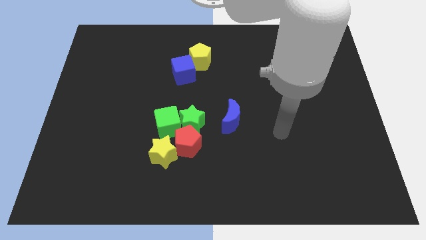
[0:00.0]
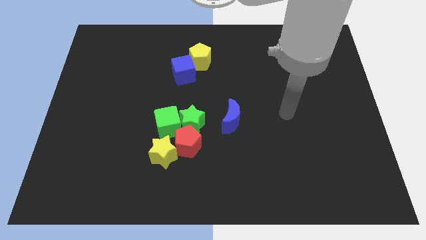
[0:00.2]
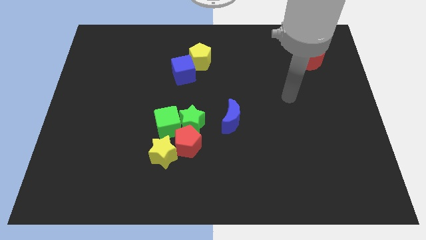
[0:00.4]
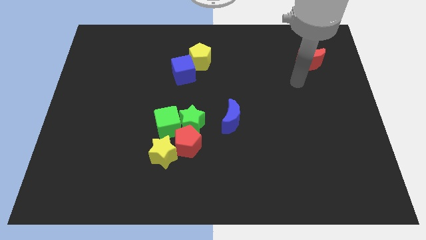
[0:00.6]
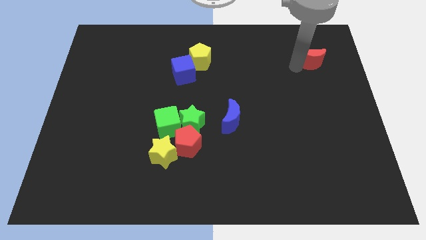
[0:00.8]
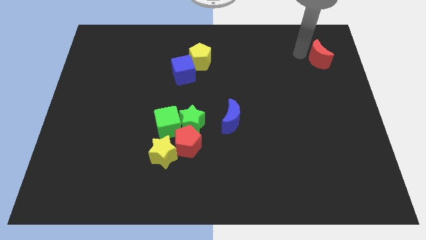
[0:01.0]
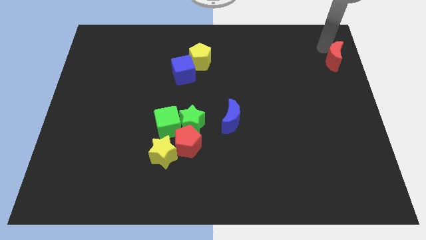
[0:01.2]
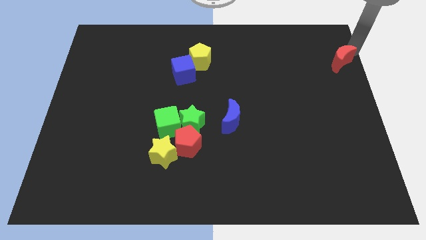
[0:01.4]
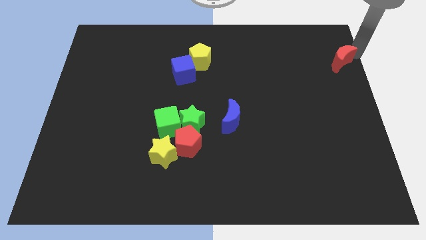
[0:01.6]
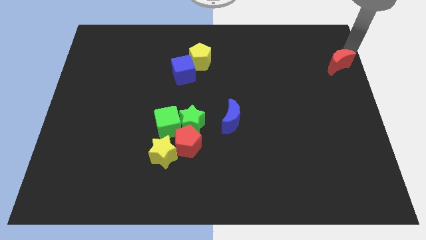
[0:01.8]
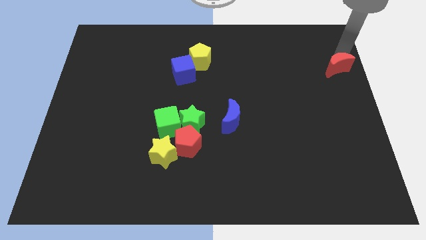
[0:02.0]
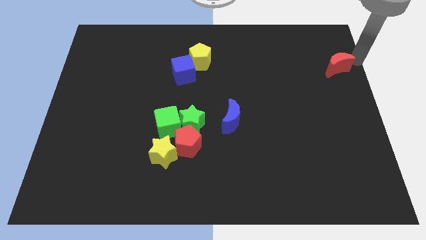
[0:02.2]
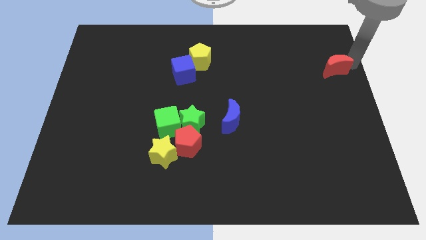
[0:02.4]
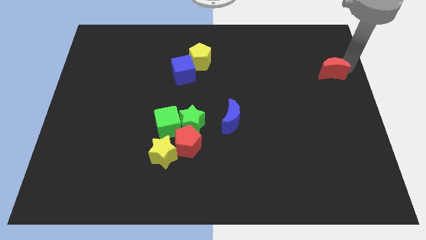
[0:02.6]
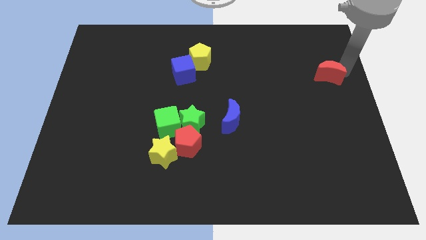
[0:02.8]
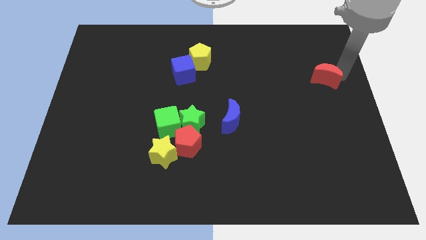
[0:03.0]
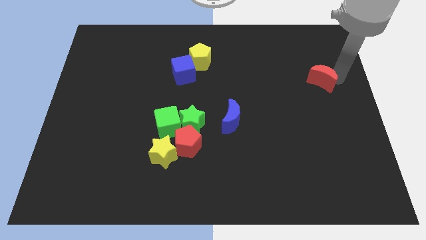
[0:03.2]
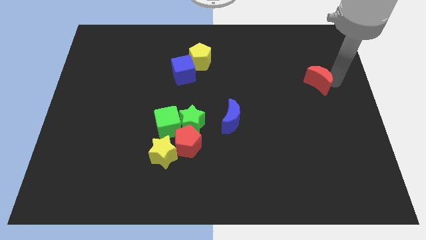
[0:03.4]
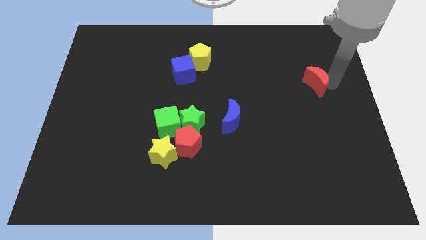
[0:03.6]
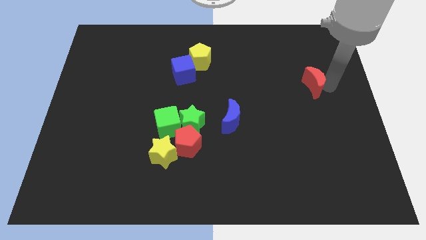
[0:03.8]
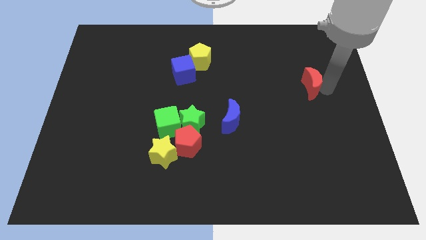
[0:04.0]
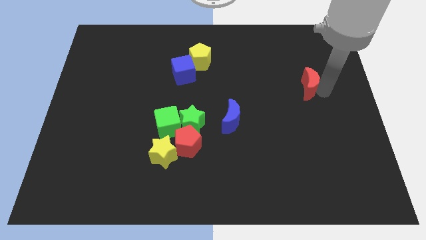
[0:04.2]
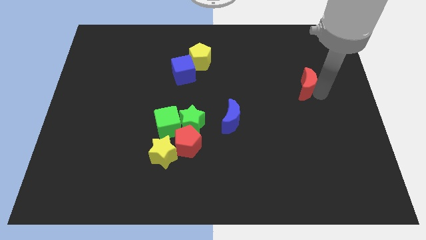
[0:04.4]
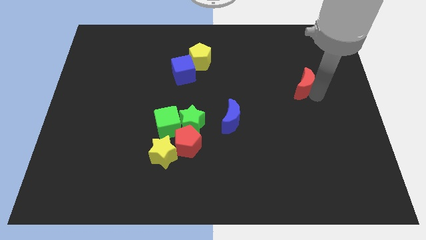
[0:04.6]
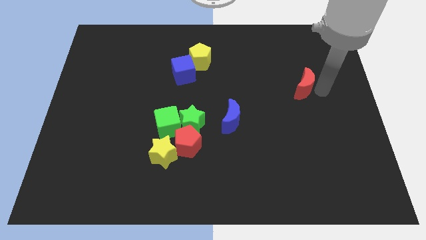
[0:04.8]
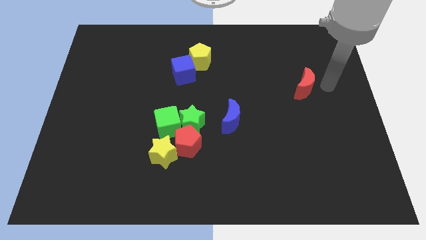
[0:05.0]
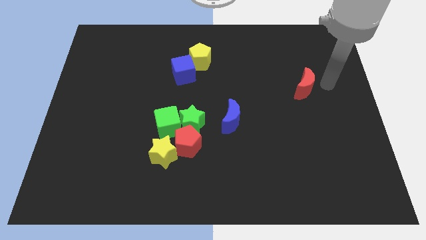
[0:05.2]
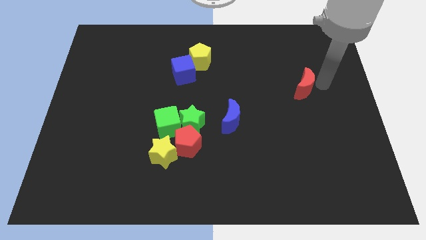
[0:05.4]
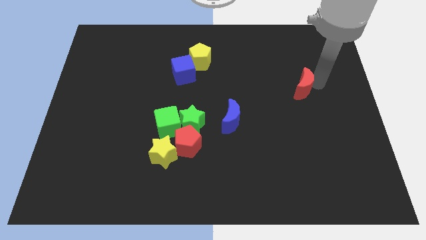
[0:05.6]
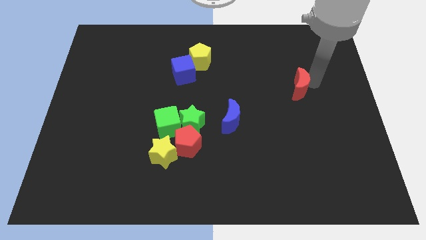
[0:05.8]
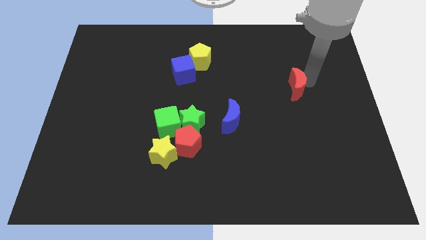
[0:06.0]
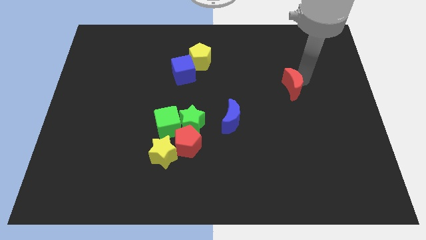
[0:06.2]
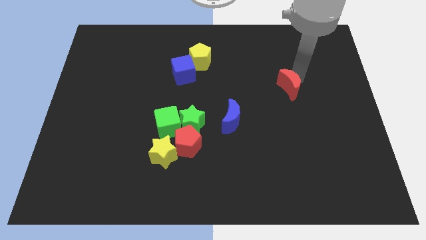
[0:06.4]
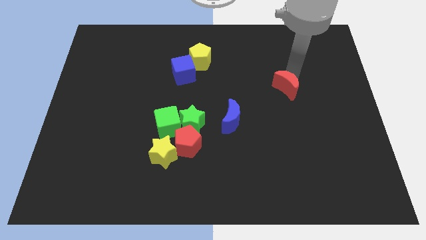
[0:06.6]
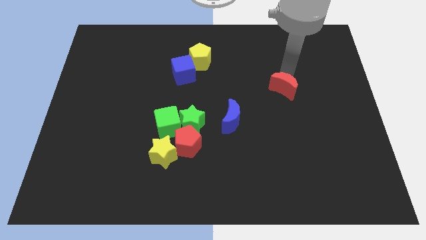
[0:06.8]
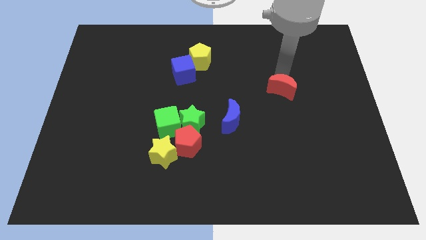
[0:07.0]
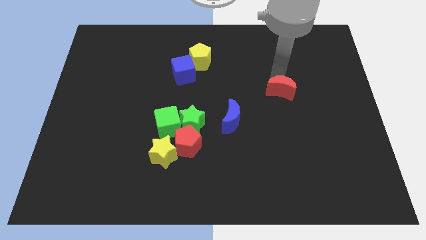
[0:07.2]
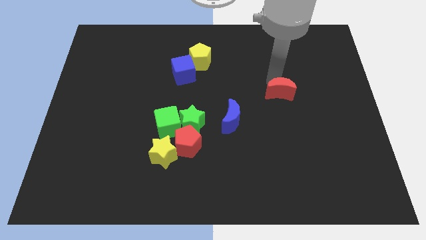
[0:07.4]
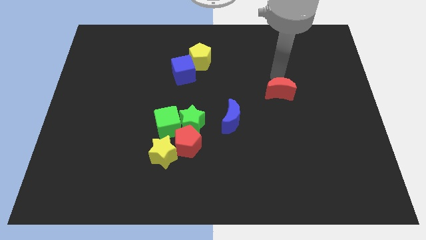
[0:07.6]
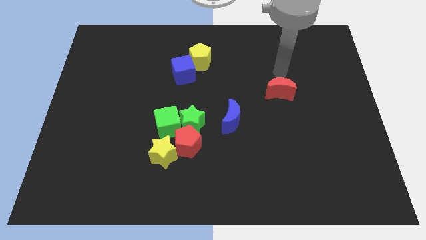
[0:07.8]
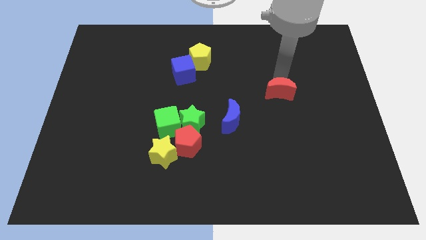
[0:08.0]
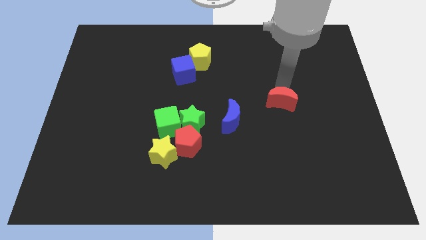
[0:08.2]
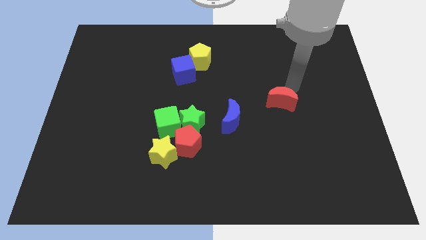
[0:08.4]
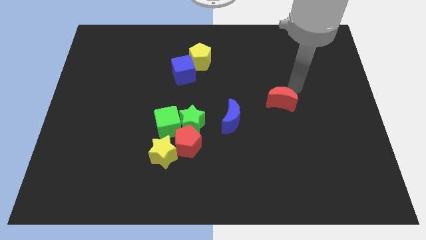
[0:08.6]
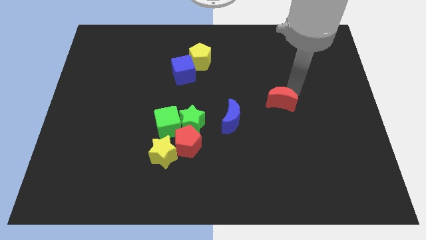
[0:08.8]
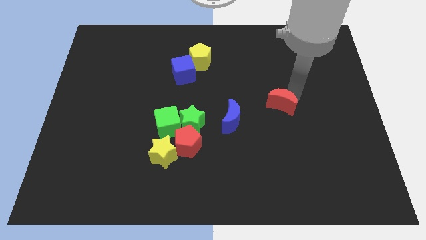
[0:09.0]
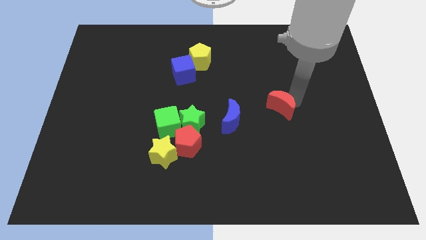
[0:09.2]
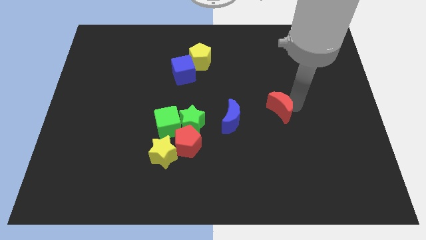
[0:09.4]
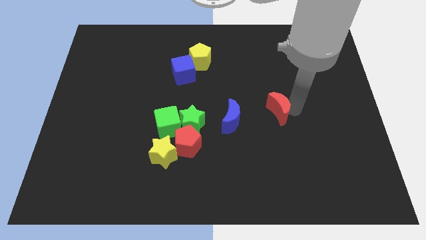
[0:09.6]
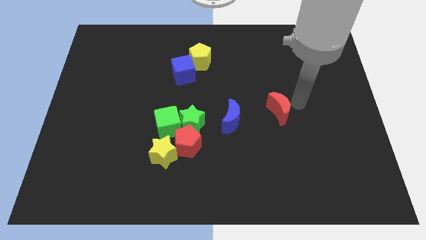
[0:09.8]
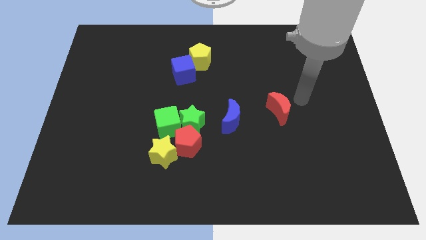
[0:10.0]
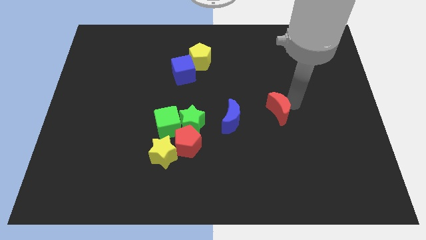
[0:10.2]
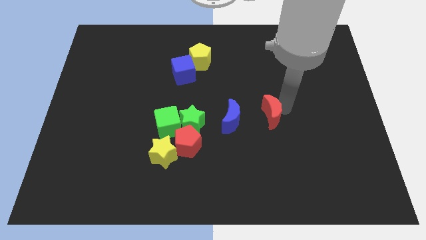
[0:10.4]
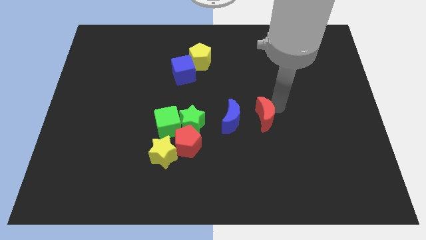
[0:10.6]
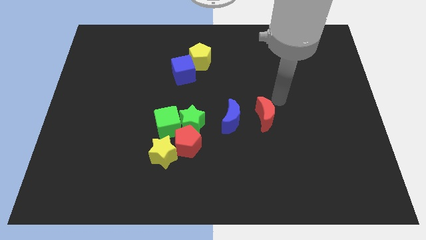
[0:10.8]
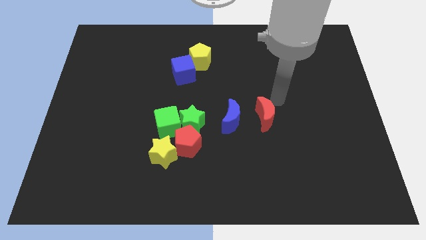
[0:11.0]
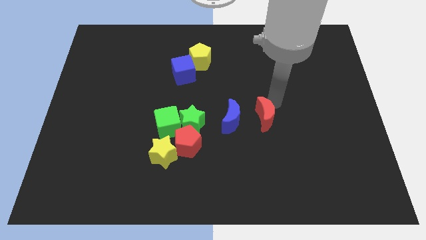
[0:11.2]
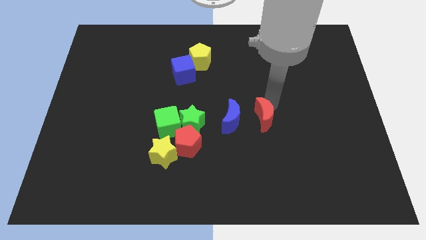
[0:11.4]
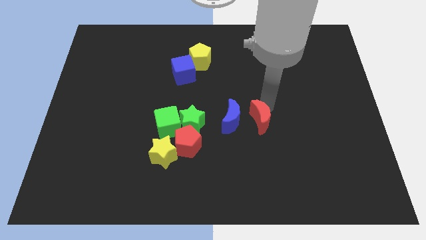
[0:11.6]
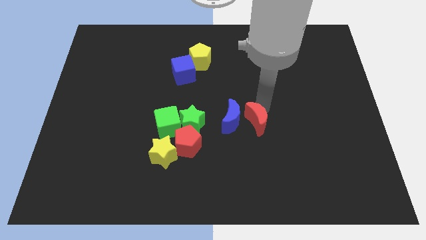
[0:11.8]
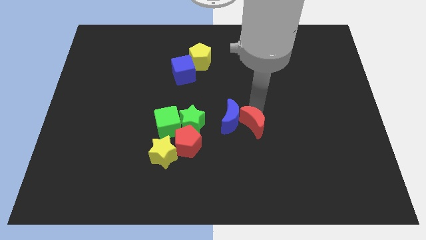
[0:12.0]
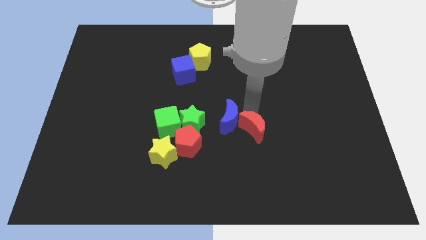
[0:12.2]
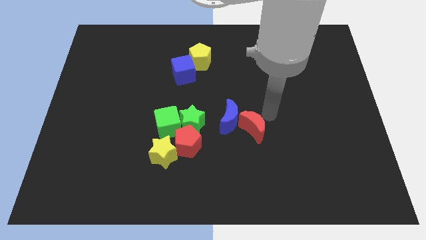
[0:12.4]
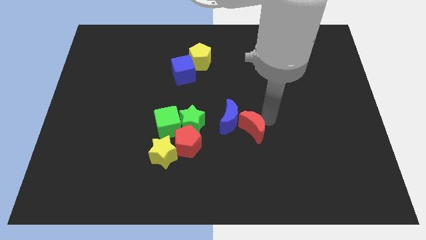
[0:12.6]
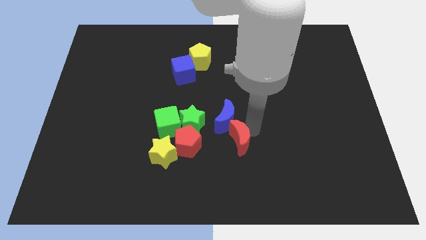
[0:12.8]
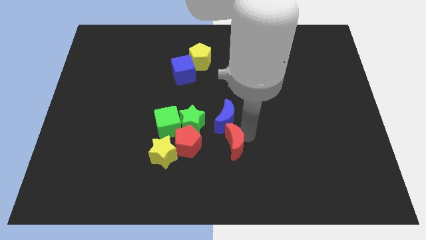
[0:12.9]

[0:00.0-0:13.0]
put the red moon just right of the yellow star

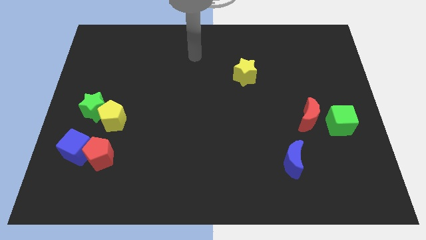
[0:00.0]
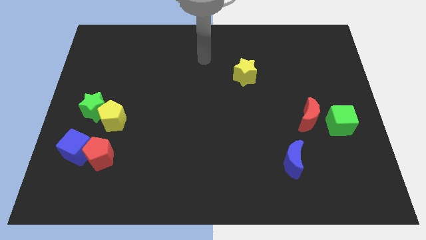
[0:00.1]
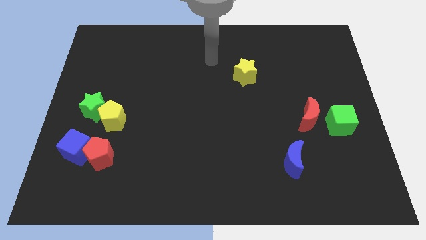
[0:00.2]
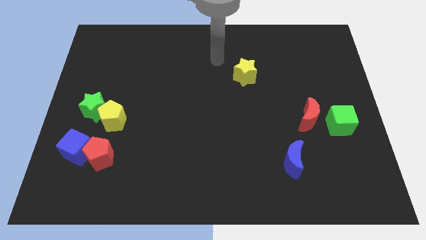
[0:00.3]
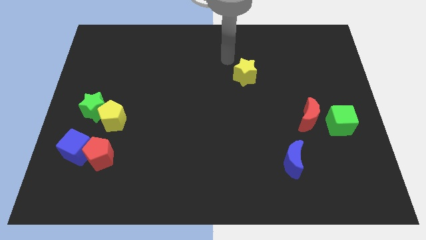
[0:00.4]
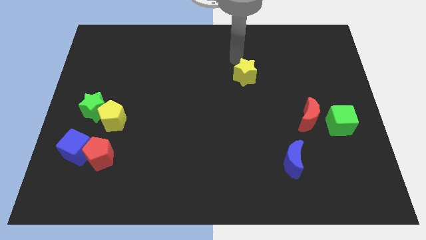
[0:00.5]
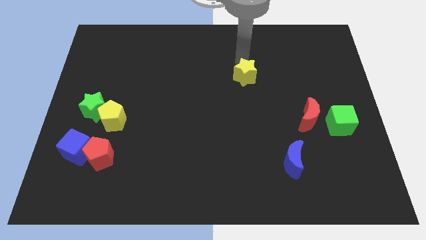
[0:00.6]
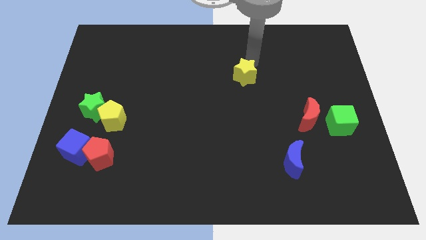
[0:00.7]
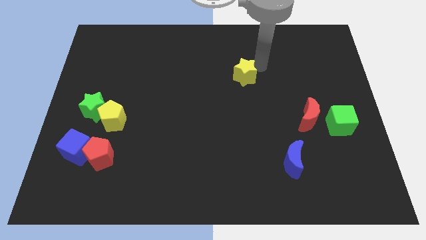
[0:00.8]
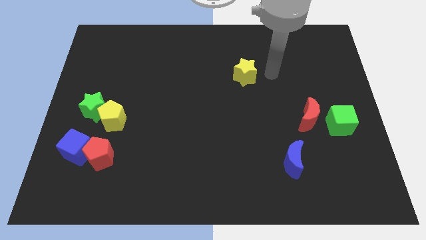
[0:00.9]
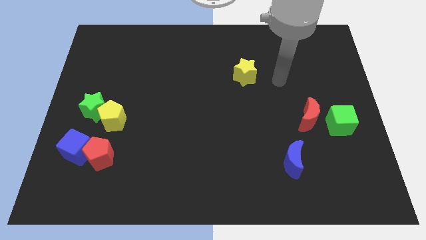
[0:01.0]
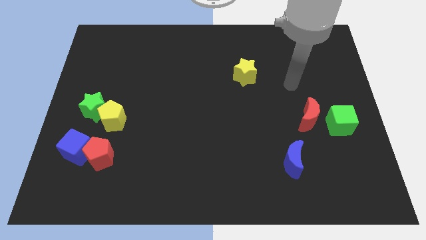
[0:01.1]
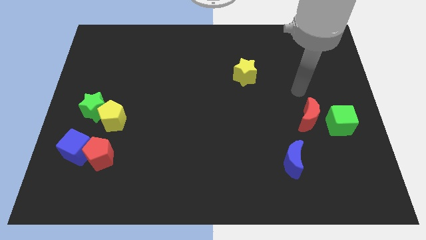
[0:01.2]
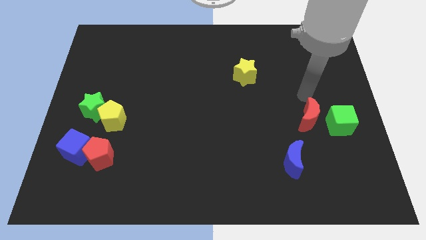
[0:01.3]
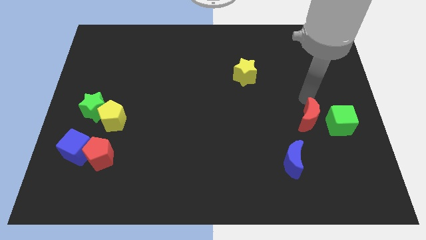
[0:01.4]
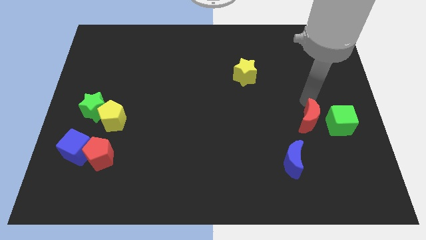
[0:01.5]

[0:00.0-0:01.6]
put the red moon to the top right side of the blue moon
